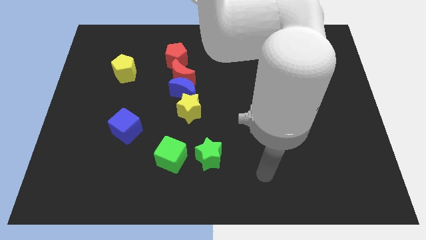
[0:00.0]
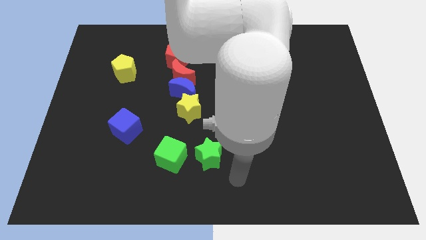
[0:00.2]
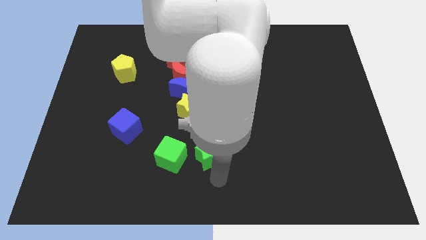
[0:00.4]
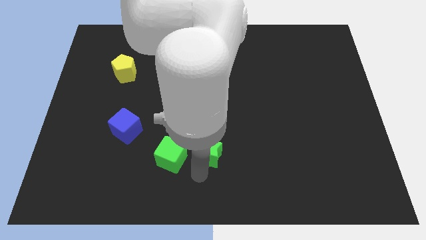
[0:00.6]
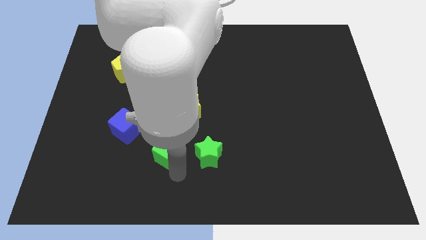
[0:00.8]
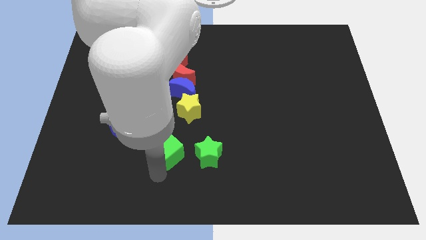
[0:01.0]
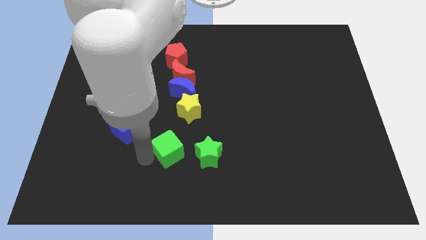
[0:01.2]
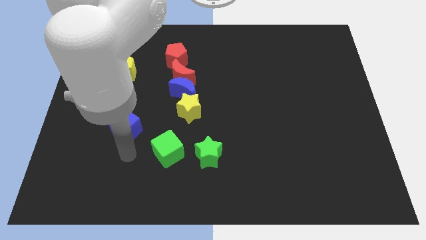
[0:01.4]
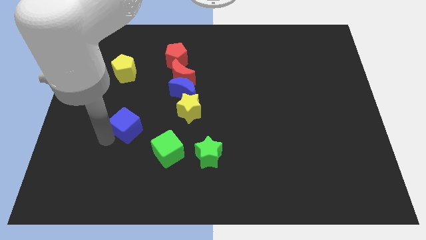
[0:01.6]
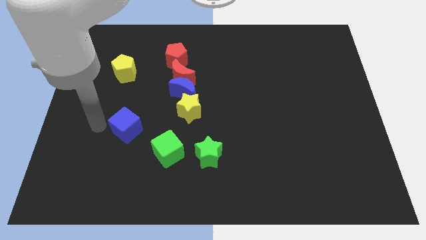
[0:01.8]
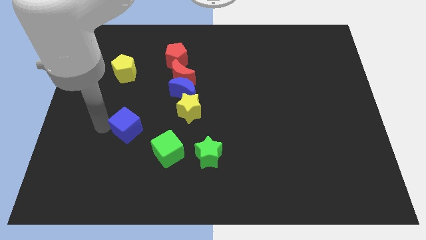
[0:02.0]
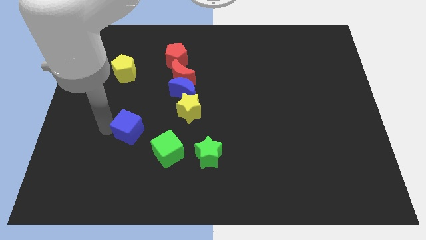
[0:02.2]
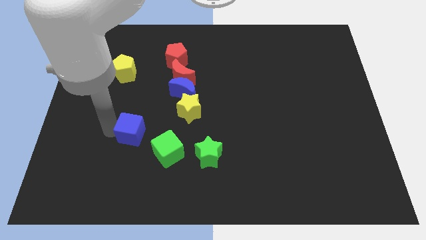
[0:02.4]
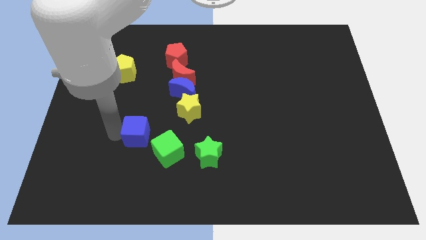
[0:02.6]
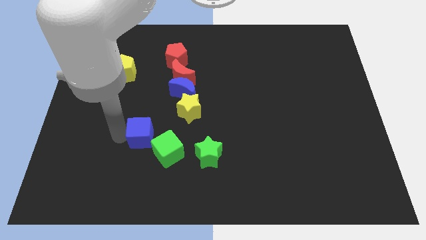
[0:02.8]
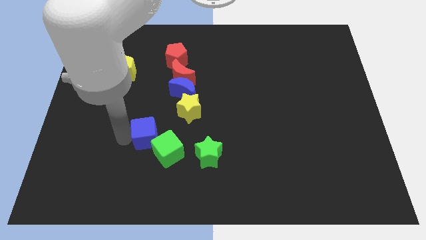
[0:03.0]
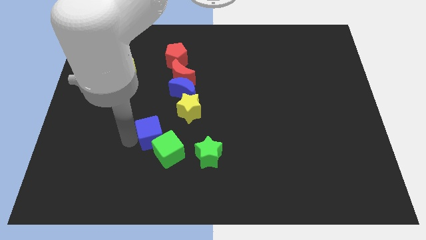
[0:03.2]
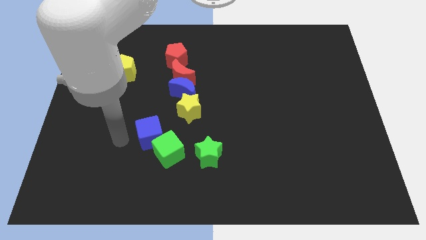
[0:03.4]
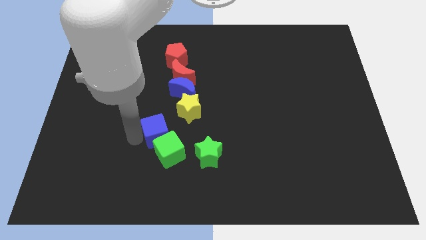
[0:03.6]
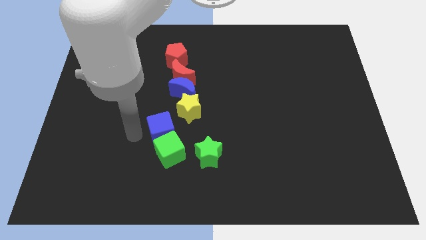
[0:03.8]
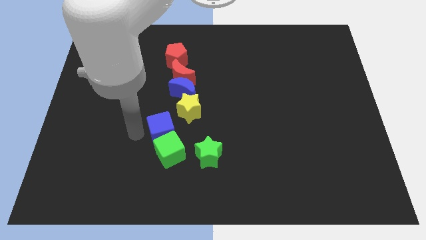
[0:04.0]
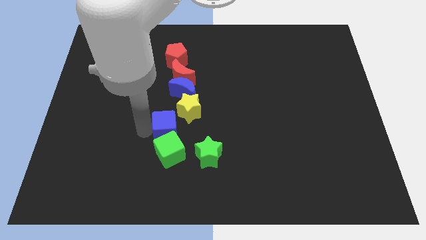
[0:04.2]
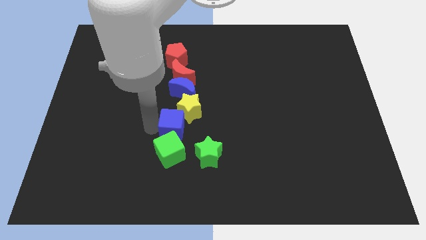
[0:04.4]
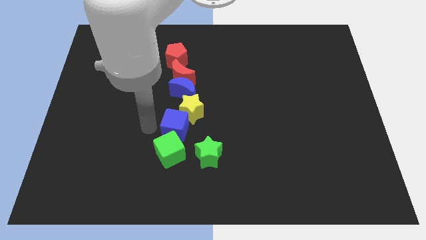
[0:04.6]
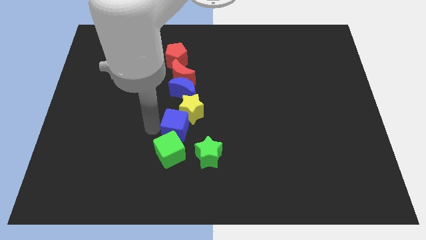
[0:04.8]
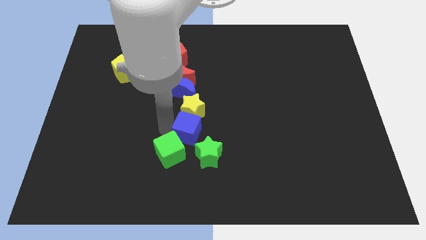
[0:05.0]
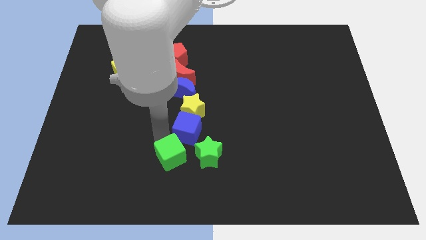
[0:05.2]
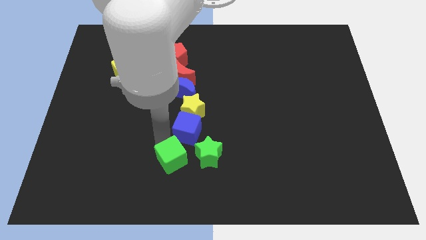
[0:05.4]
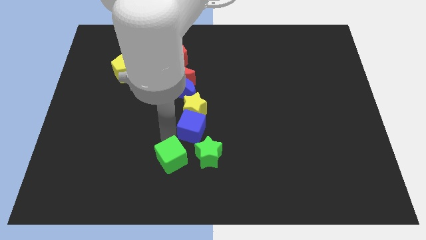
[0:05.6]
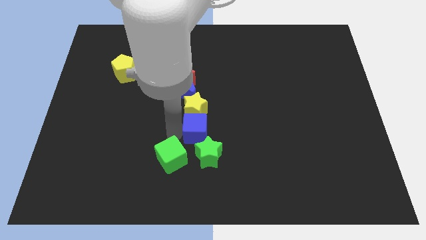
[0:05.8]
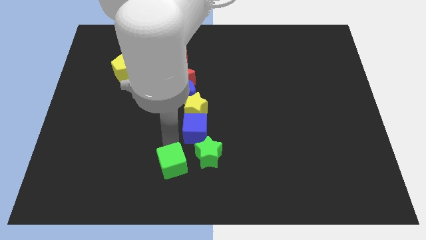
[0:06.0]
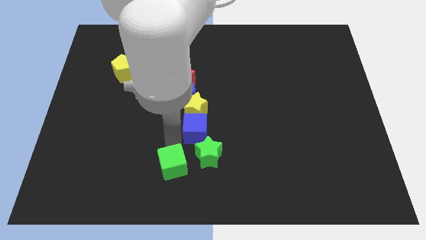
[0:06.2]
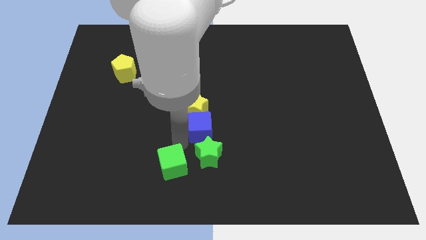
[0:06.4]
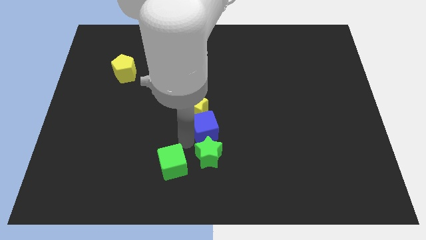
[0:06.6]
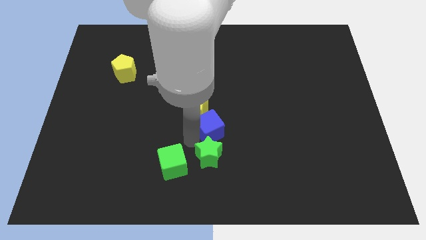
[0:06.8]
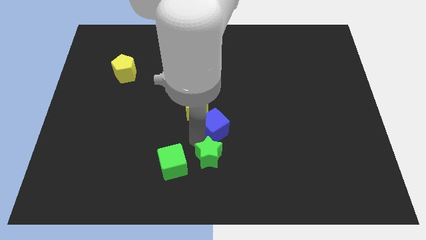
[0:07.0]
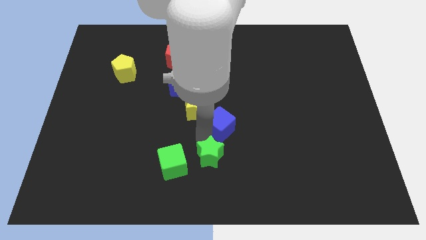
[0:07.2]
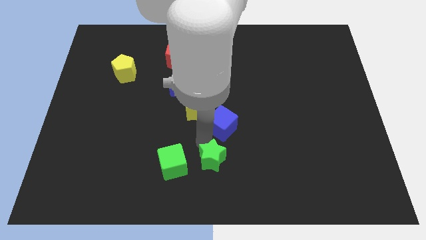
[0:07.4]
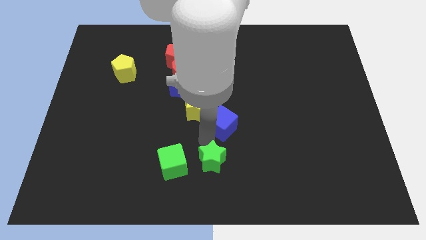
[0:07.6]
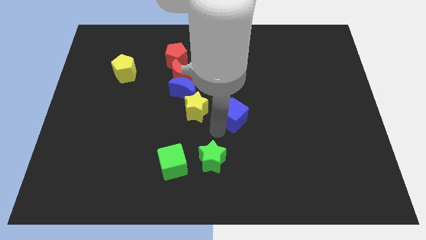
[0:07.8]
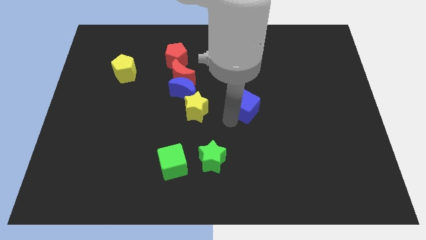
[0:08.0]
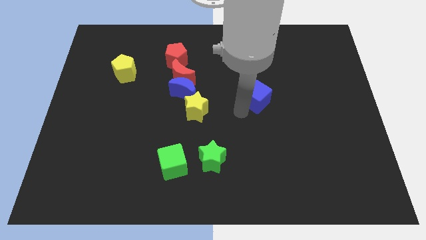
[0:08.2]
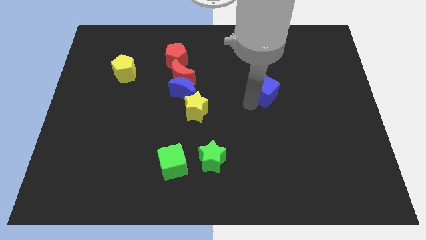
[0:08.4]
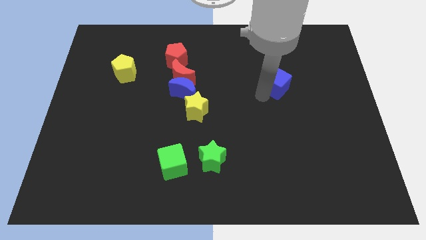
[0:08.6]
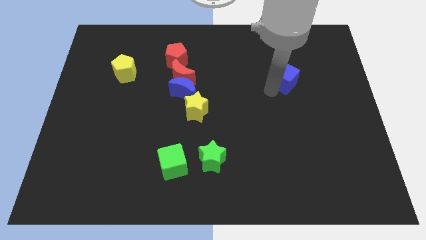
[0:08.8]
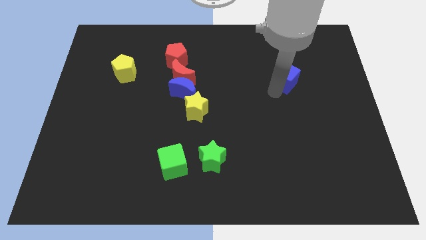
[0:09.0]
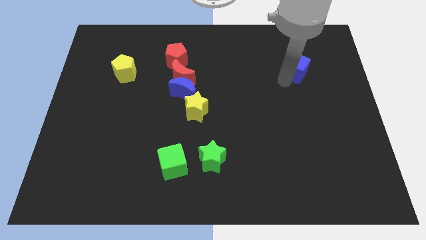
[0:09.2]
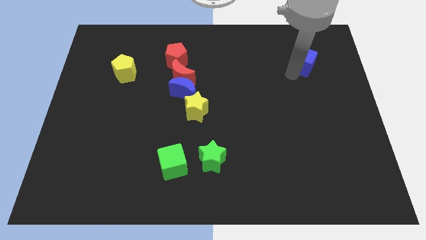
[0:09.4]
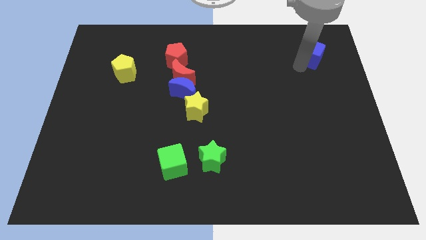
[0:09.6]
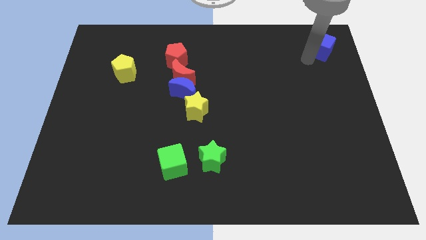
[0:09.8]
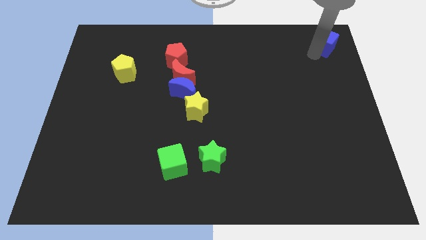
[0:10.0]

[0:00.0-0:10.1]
push the blue cube to the upper right corner

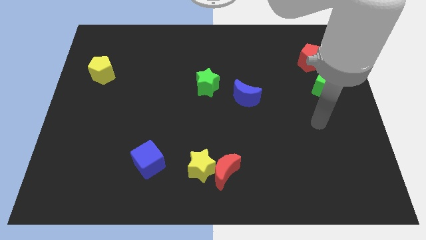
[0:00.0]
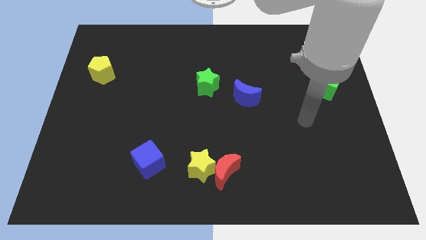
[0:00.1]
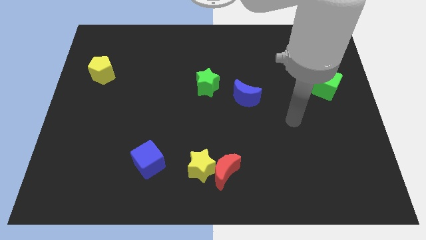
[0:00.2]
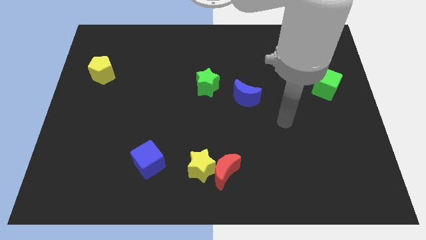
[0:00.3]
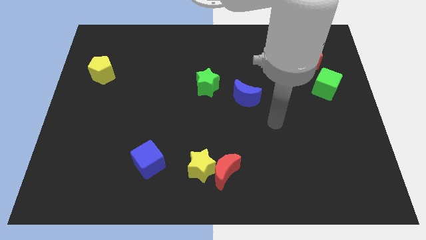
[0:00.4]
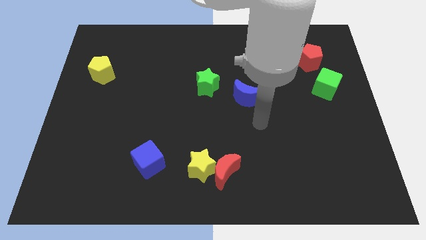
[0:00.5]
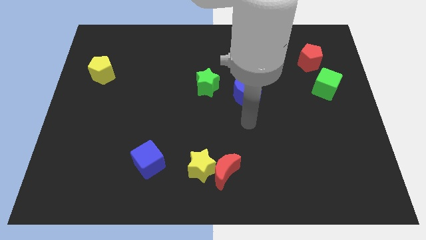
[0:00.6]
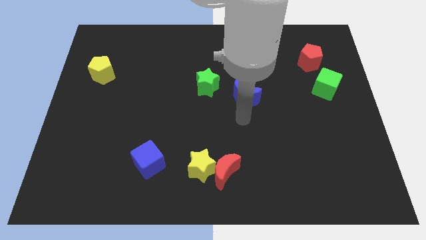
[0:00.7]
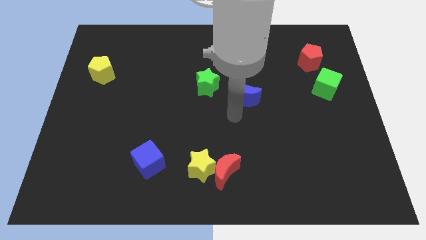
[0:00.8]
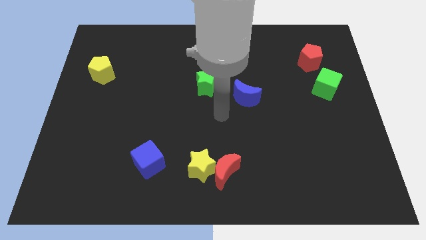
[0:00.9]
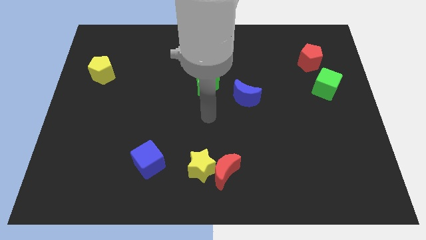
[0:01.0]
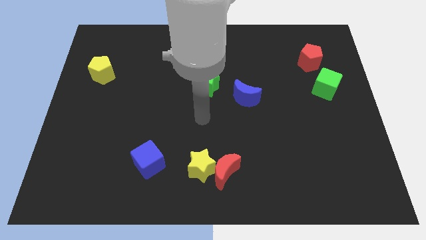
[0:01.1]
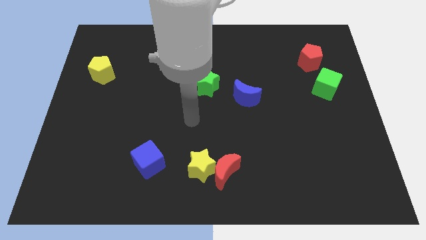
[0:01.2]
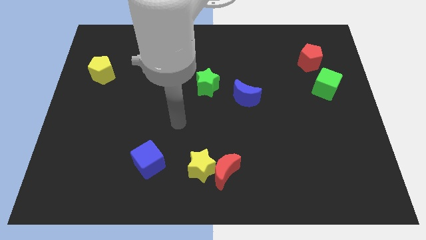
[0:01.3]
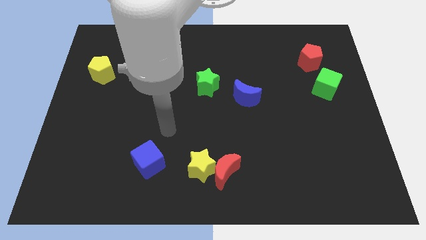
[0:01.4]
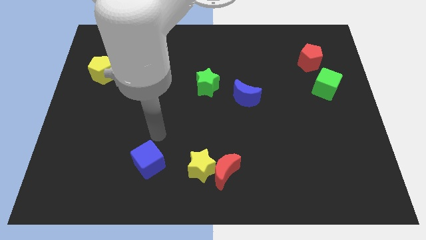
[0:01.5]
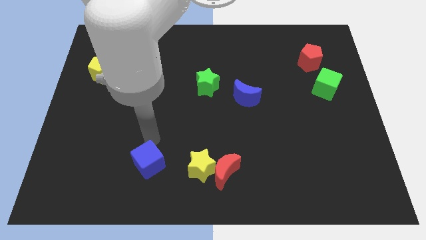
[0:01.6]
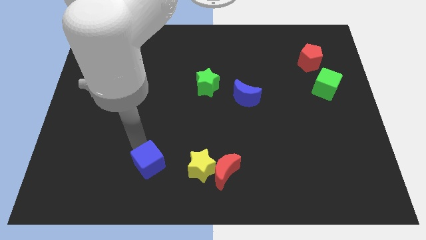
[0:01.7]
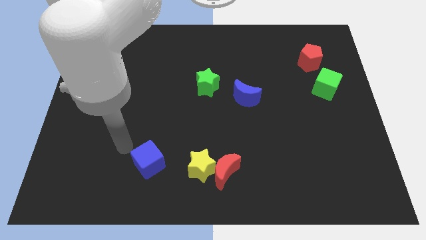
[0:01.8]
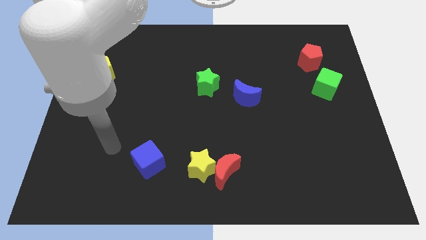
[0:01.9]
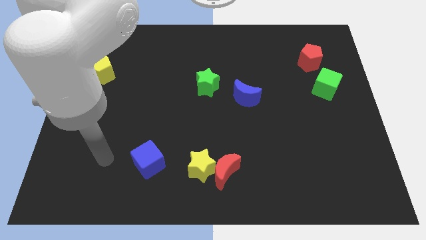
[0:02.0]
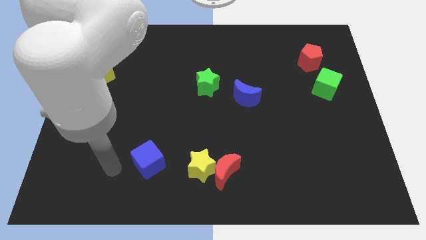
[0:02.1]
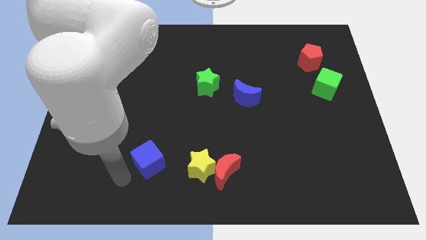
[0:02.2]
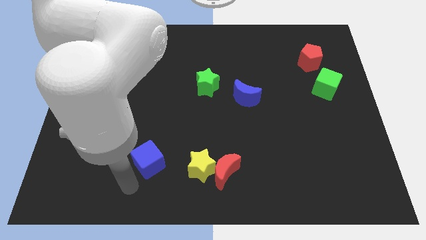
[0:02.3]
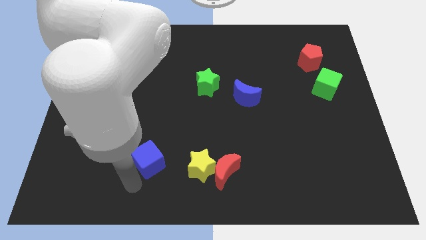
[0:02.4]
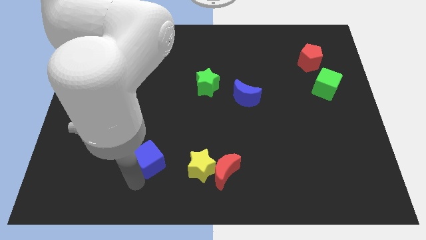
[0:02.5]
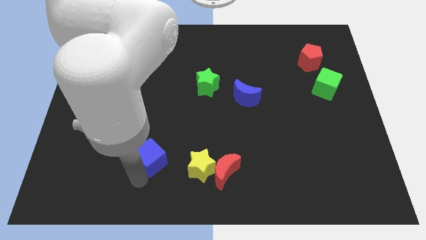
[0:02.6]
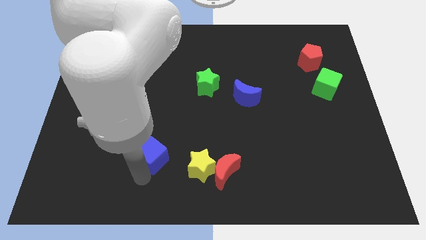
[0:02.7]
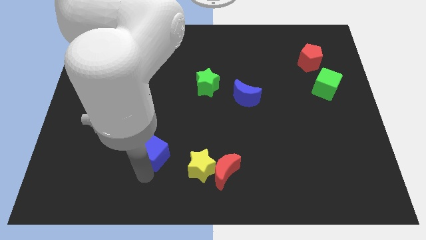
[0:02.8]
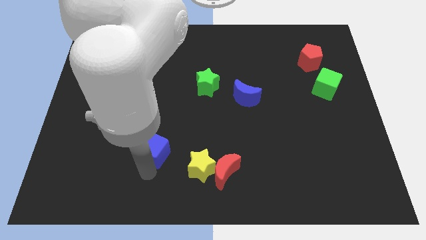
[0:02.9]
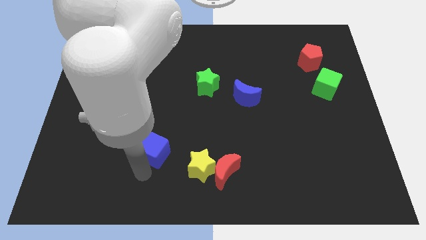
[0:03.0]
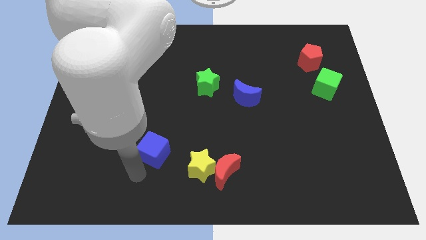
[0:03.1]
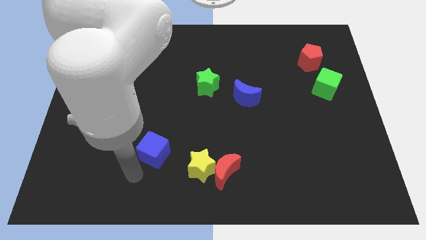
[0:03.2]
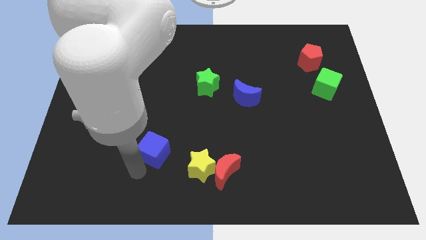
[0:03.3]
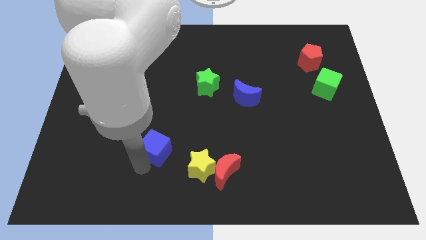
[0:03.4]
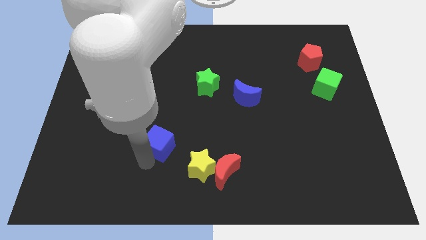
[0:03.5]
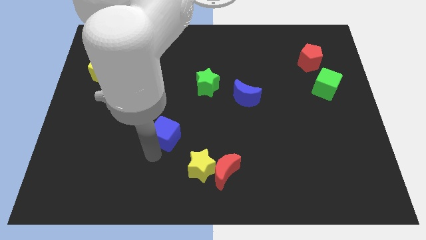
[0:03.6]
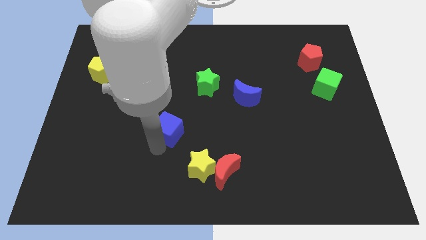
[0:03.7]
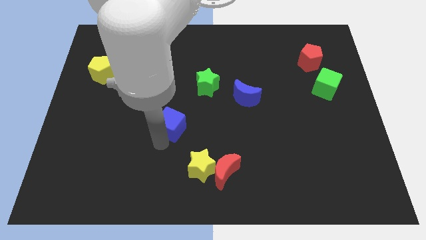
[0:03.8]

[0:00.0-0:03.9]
move the blue cube to the center of the board
